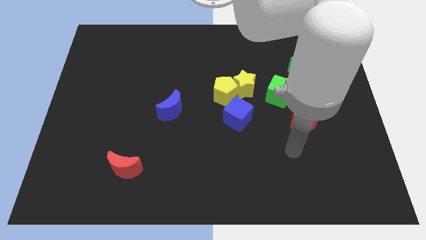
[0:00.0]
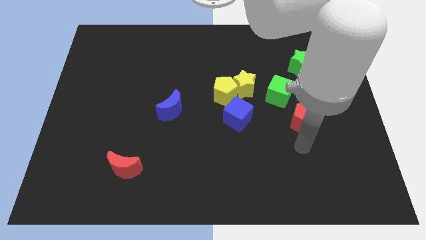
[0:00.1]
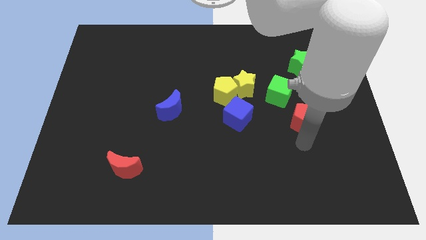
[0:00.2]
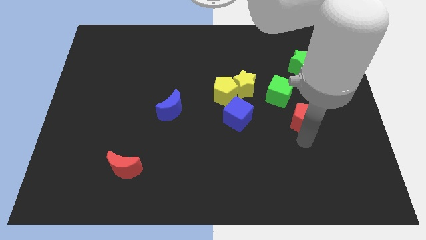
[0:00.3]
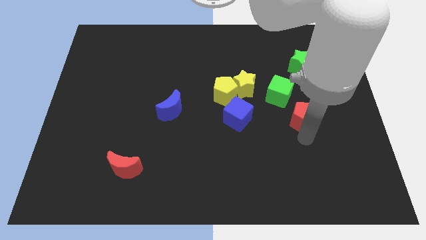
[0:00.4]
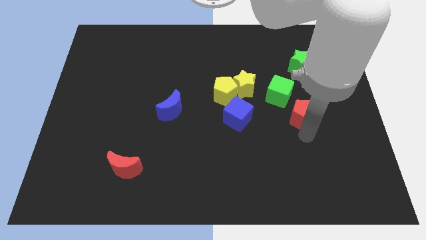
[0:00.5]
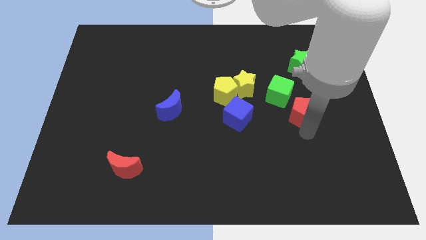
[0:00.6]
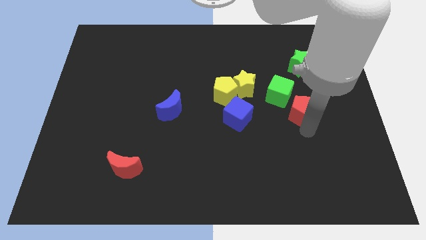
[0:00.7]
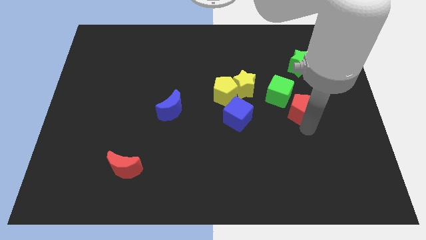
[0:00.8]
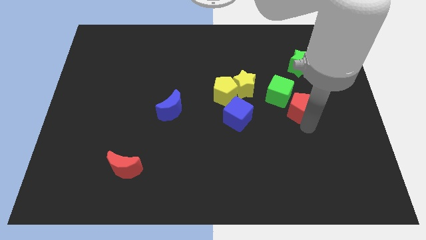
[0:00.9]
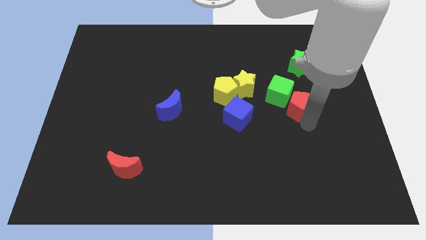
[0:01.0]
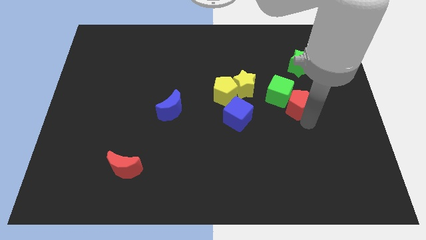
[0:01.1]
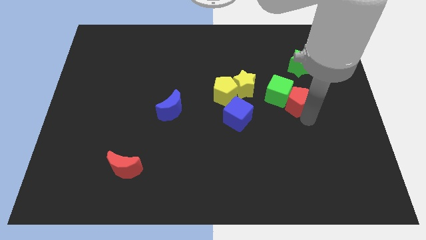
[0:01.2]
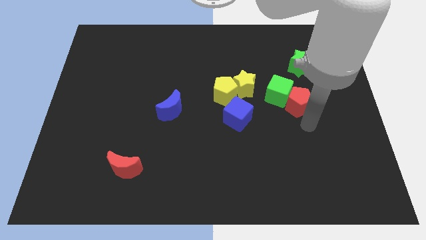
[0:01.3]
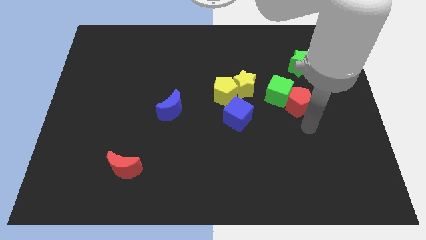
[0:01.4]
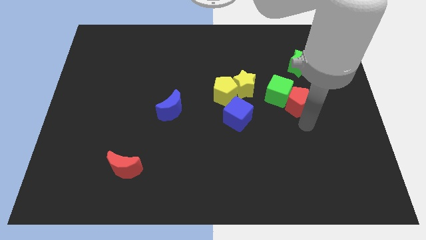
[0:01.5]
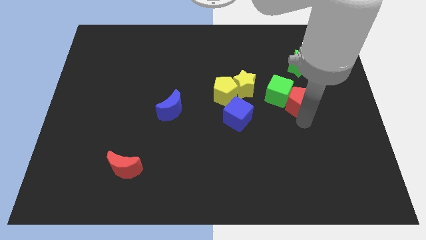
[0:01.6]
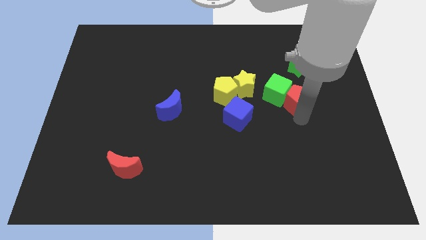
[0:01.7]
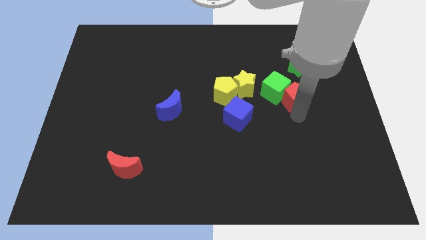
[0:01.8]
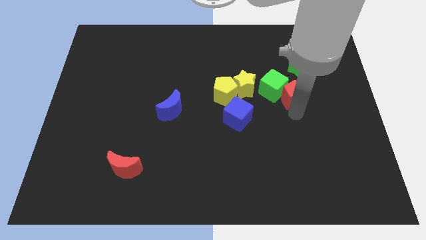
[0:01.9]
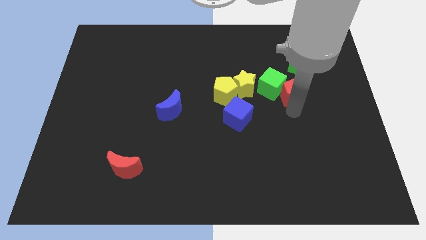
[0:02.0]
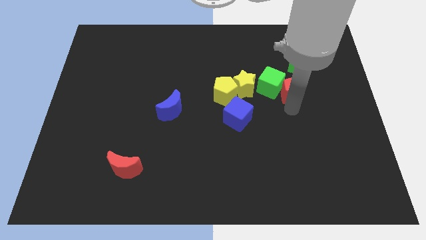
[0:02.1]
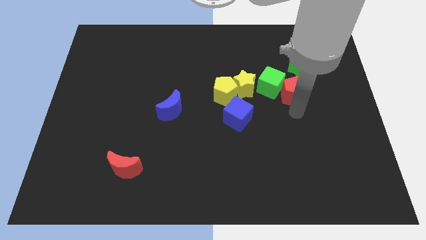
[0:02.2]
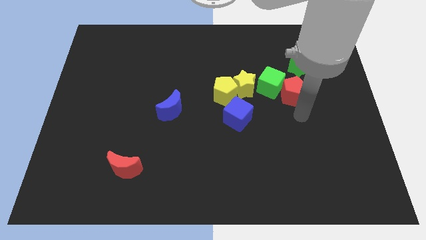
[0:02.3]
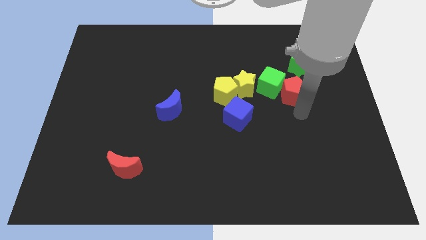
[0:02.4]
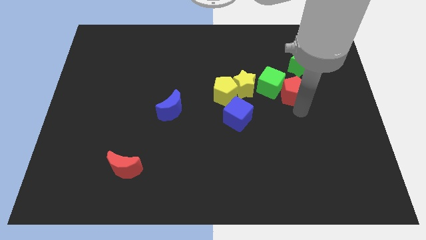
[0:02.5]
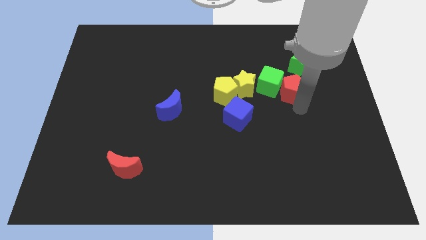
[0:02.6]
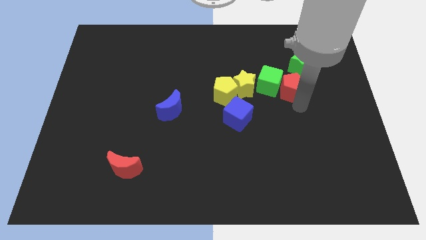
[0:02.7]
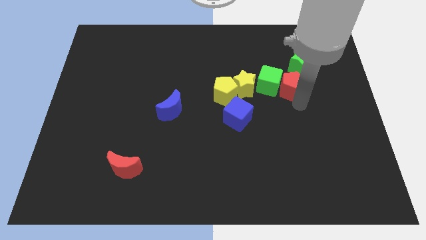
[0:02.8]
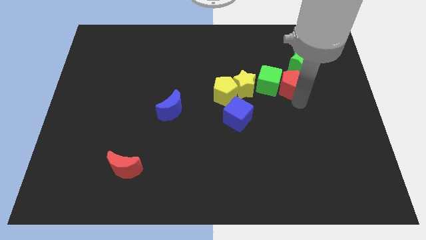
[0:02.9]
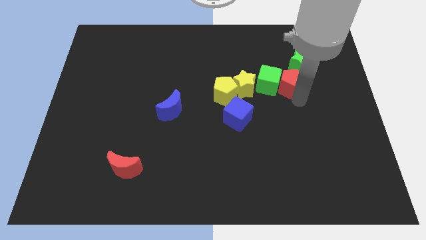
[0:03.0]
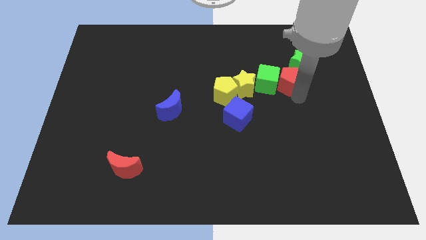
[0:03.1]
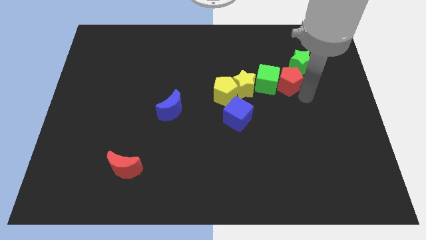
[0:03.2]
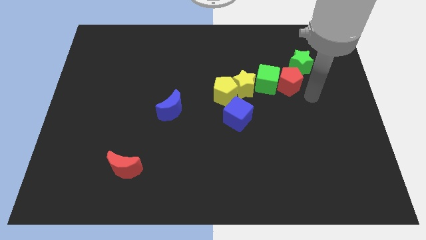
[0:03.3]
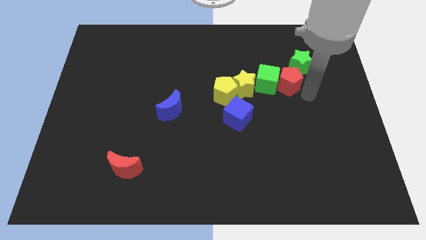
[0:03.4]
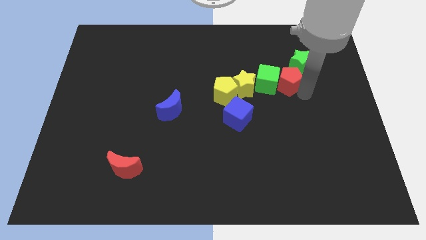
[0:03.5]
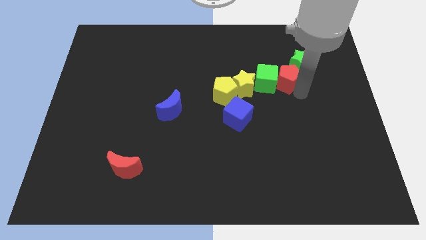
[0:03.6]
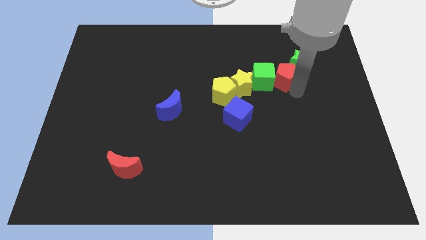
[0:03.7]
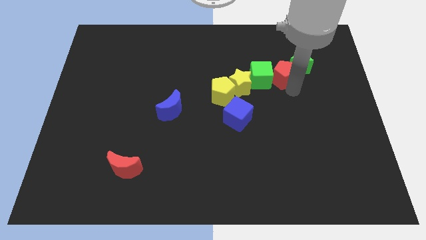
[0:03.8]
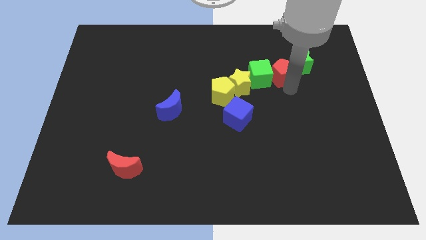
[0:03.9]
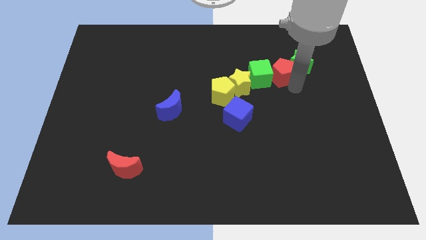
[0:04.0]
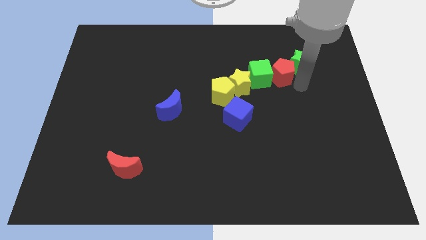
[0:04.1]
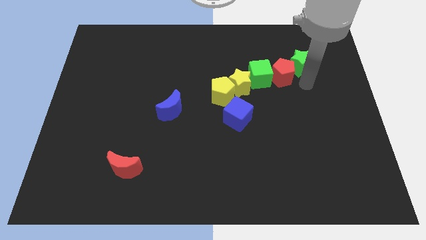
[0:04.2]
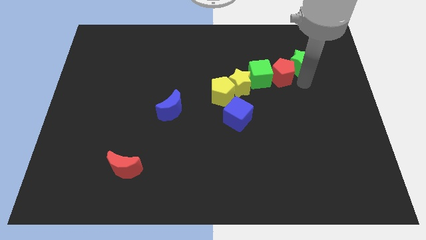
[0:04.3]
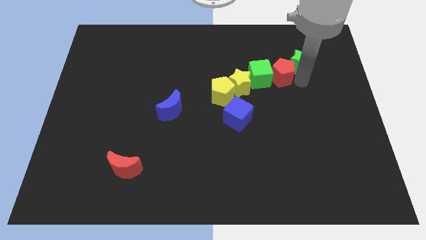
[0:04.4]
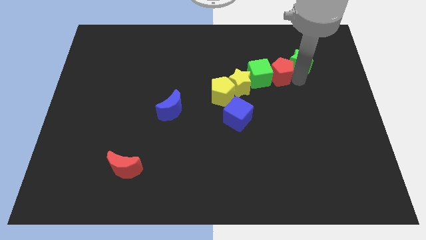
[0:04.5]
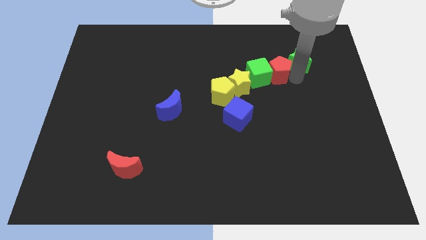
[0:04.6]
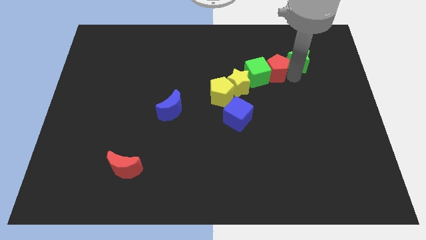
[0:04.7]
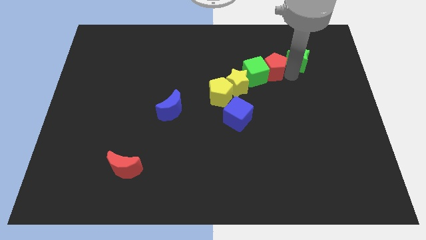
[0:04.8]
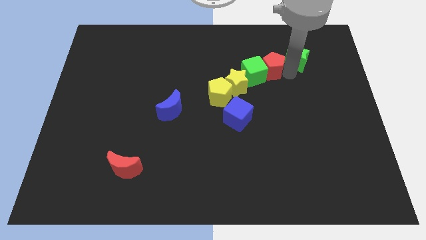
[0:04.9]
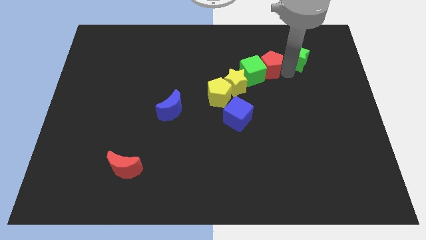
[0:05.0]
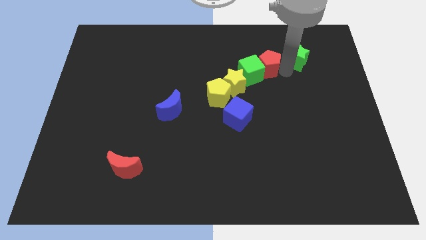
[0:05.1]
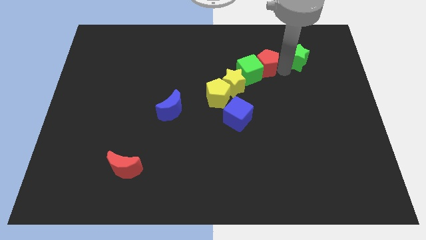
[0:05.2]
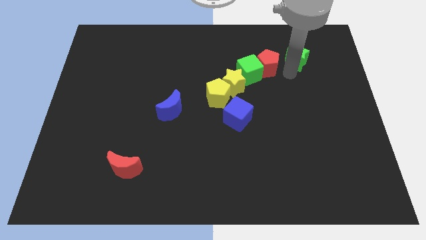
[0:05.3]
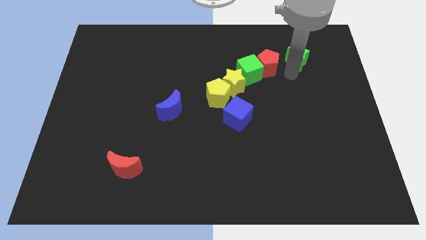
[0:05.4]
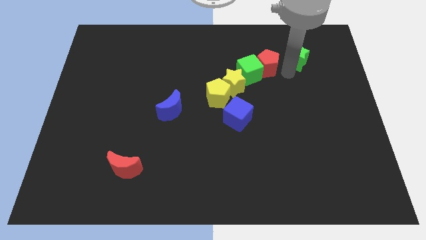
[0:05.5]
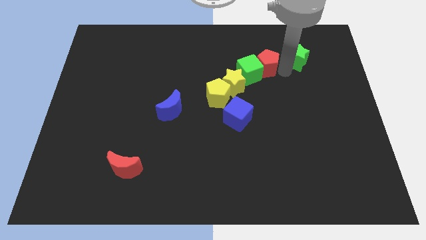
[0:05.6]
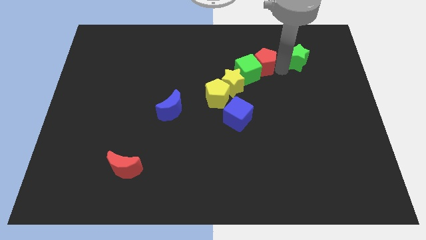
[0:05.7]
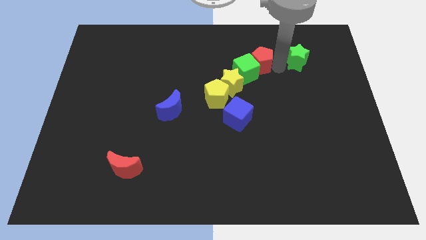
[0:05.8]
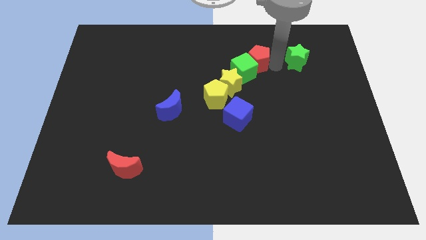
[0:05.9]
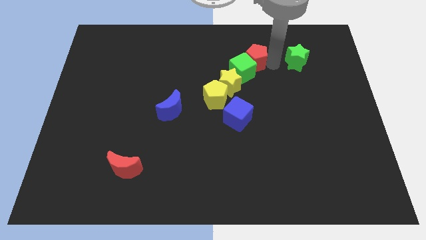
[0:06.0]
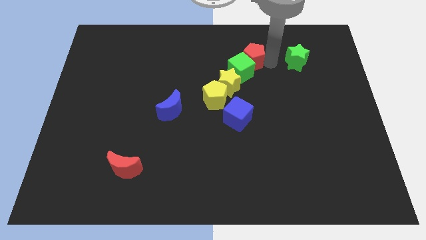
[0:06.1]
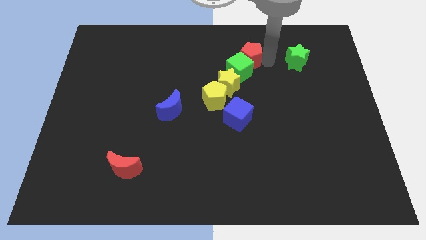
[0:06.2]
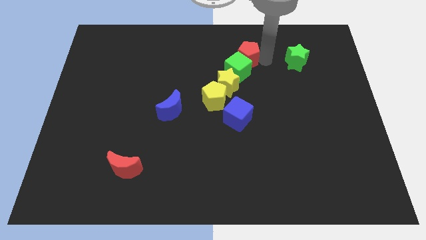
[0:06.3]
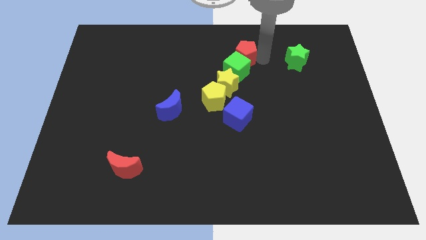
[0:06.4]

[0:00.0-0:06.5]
slide the red pentagon to the top of the yellow star

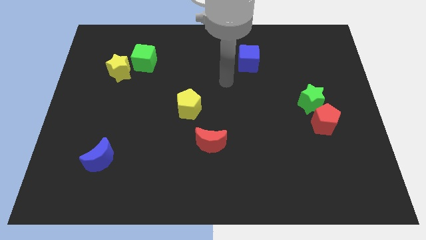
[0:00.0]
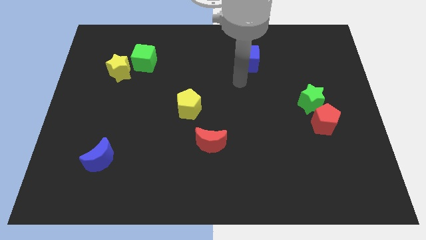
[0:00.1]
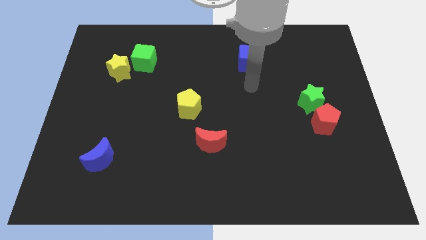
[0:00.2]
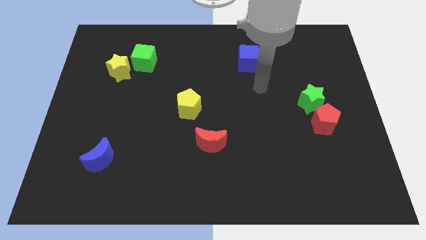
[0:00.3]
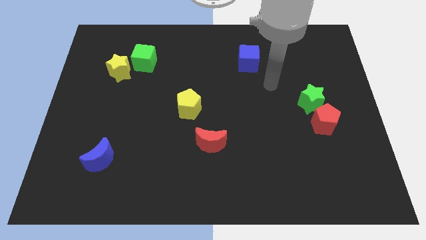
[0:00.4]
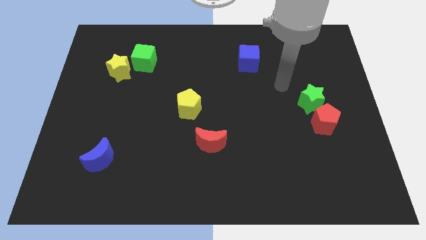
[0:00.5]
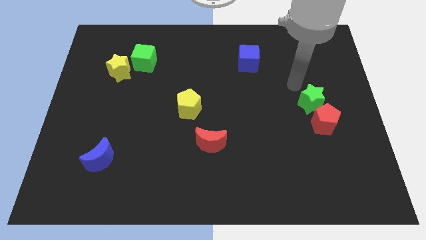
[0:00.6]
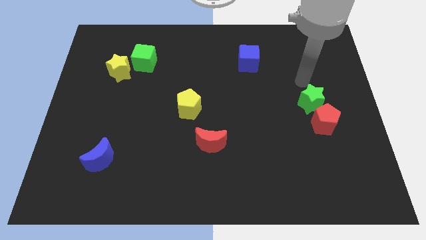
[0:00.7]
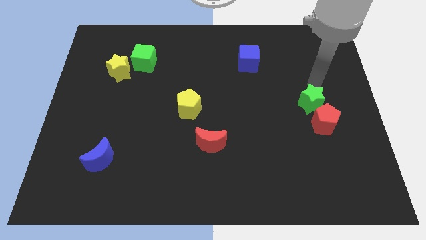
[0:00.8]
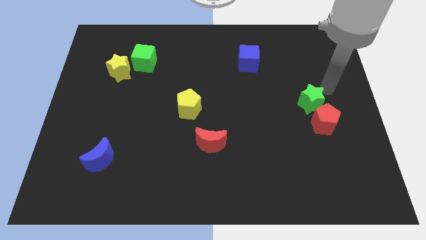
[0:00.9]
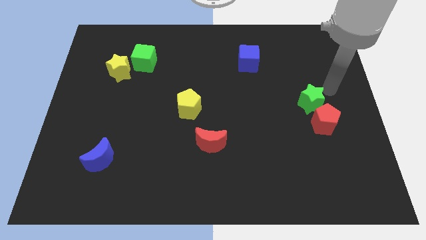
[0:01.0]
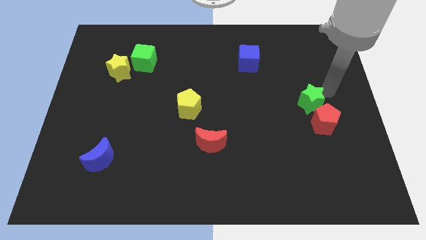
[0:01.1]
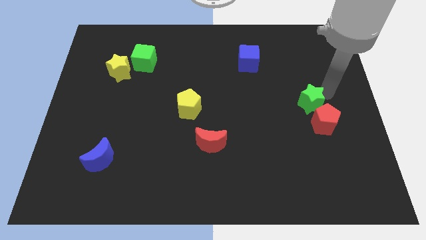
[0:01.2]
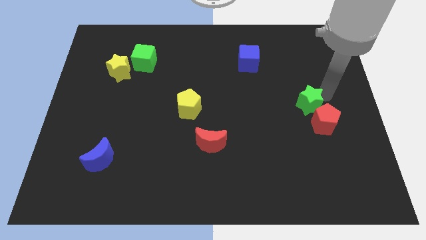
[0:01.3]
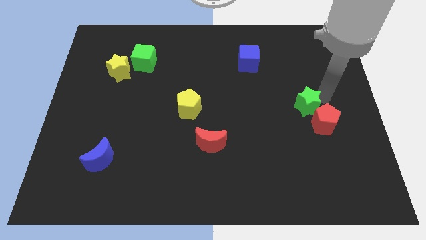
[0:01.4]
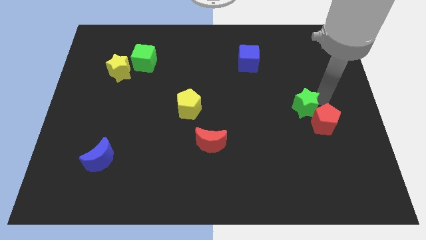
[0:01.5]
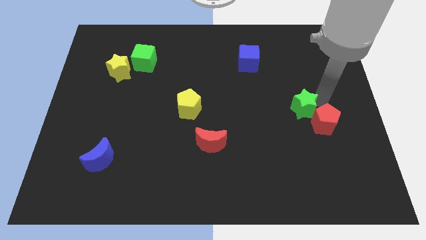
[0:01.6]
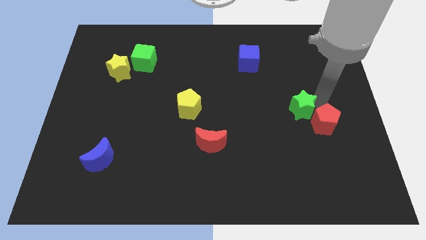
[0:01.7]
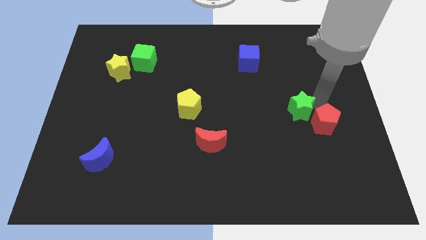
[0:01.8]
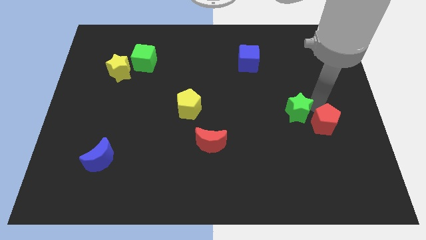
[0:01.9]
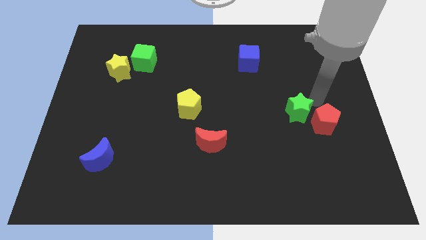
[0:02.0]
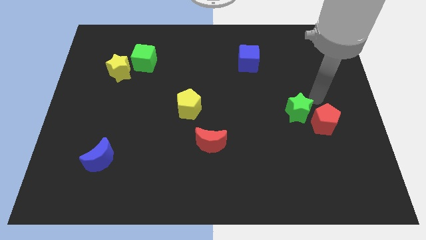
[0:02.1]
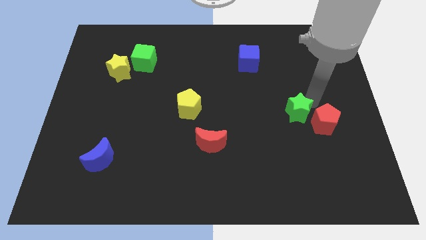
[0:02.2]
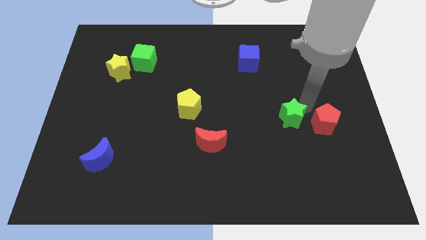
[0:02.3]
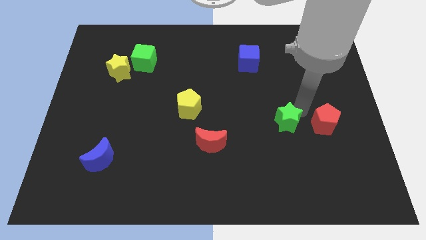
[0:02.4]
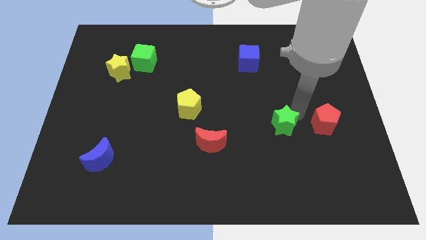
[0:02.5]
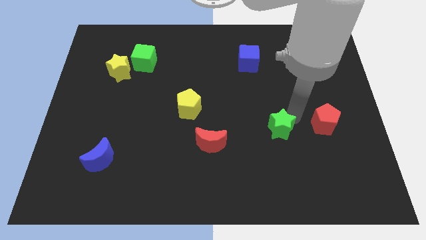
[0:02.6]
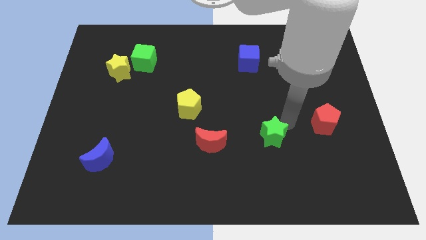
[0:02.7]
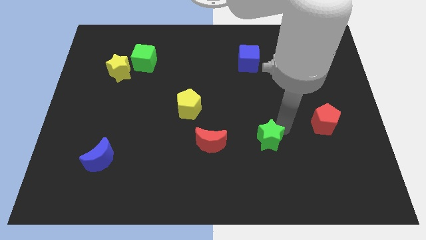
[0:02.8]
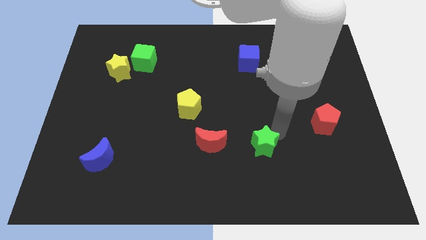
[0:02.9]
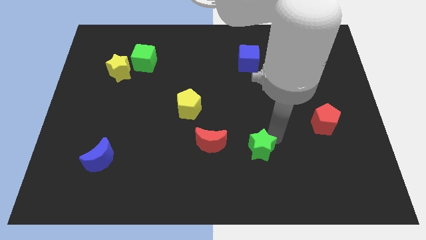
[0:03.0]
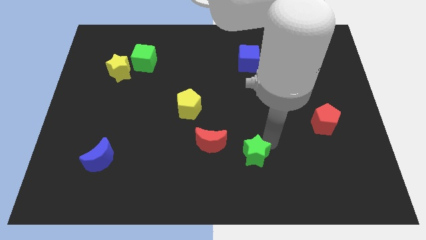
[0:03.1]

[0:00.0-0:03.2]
push the green star to the bottom right side of the red moon
